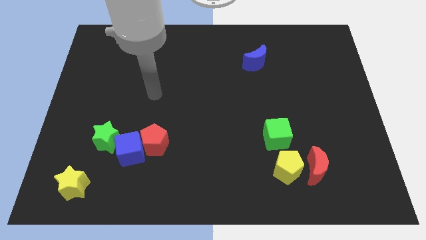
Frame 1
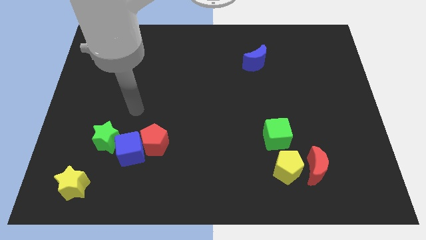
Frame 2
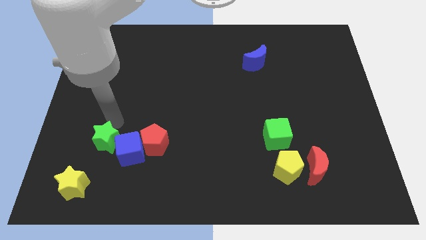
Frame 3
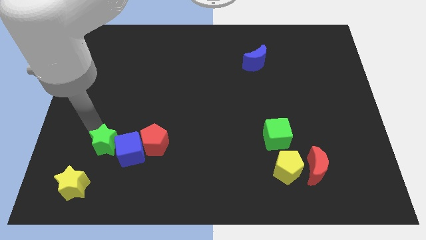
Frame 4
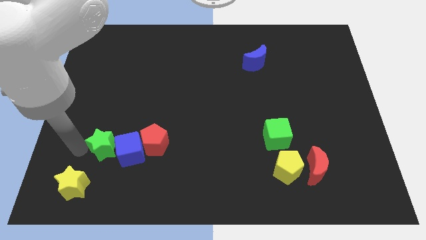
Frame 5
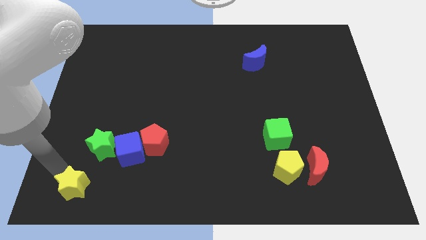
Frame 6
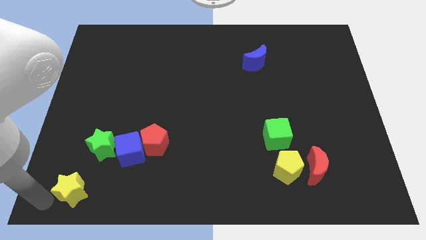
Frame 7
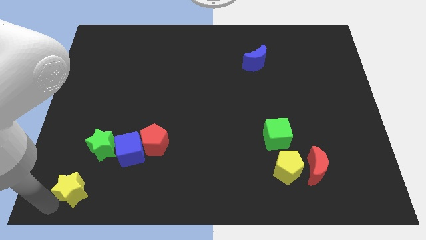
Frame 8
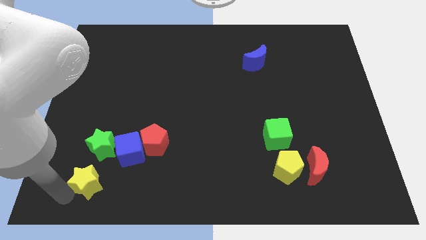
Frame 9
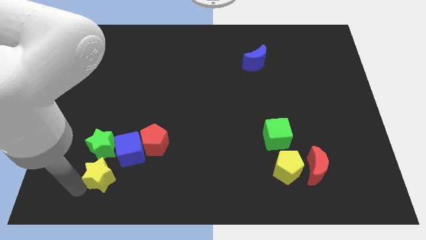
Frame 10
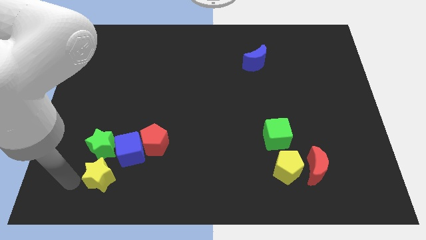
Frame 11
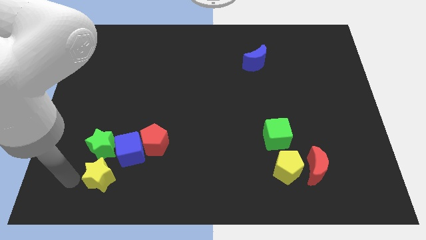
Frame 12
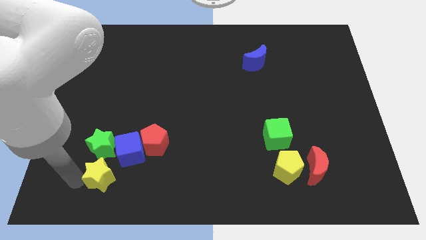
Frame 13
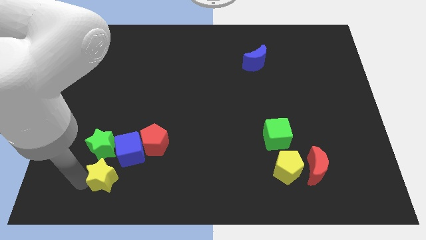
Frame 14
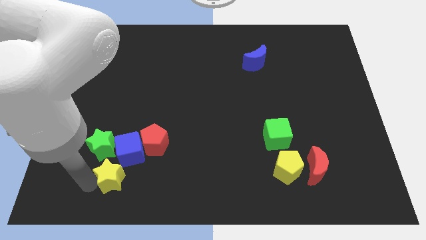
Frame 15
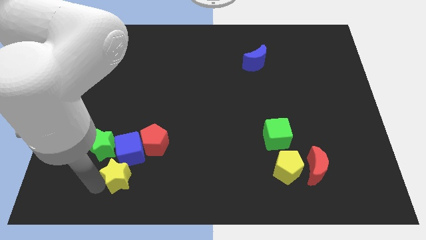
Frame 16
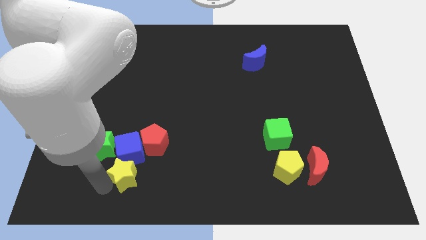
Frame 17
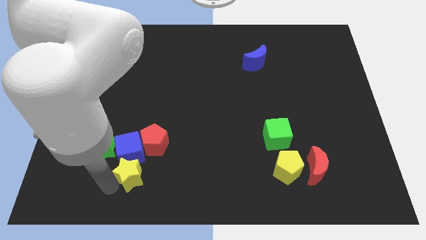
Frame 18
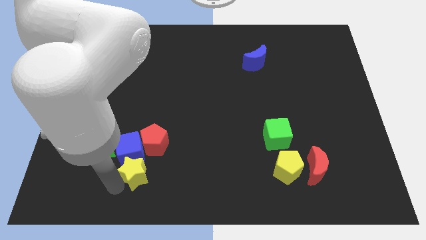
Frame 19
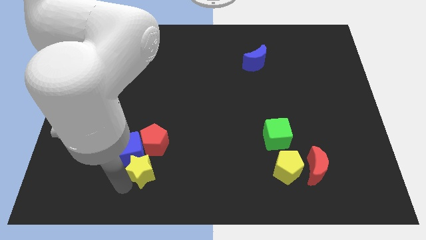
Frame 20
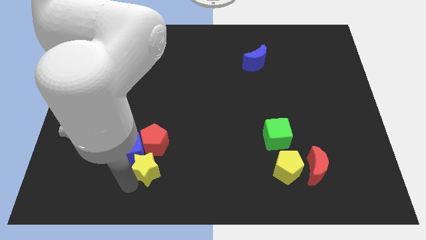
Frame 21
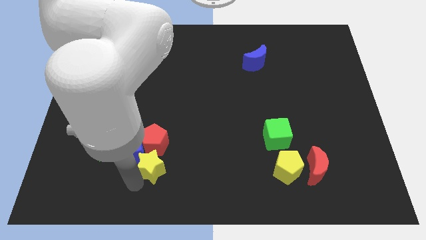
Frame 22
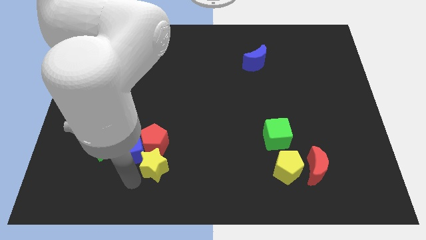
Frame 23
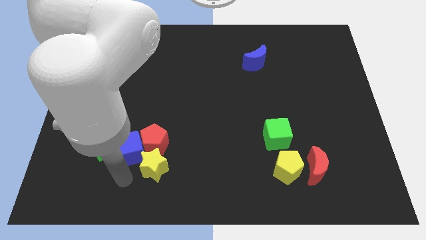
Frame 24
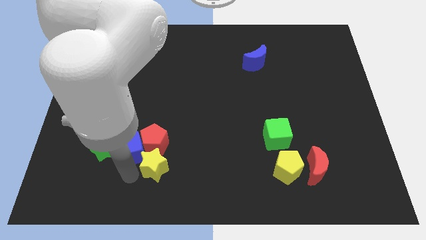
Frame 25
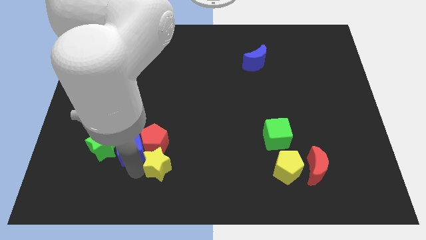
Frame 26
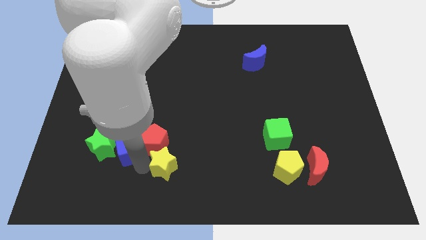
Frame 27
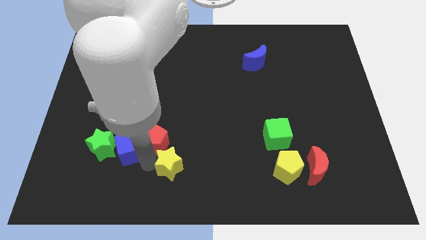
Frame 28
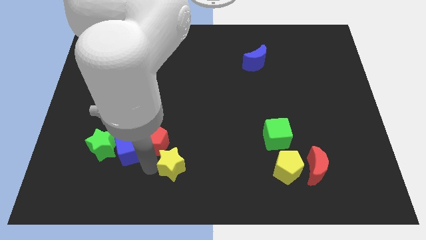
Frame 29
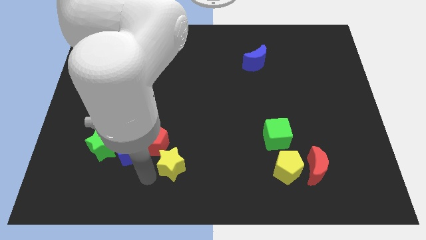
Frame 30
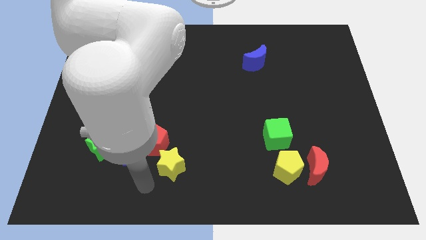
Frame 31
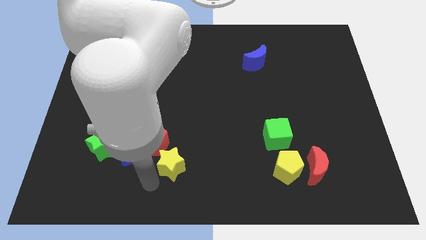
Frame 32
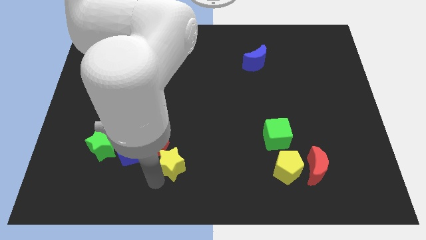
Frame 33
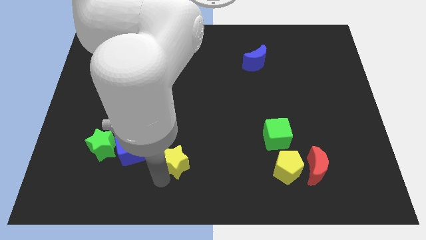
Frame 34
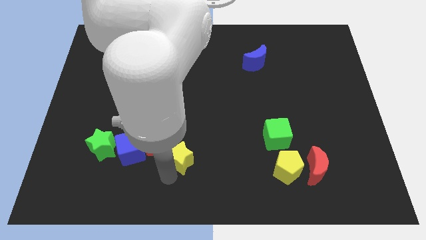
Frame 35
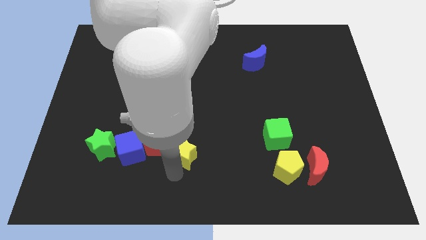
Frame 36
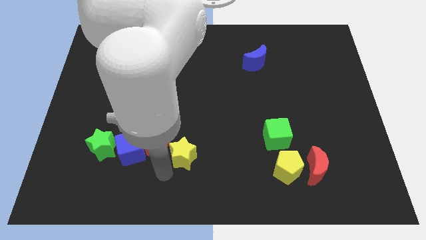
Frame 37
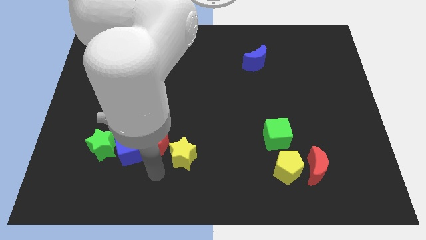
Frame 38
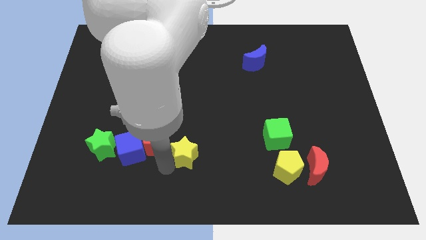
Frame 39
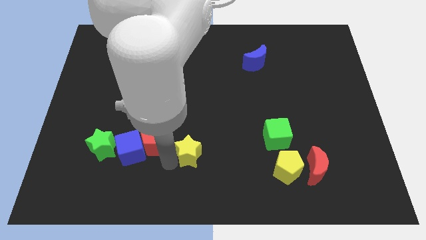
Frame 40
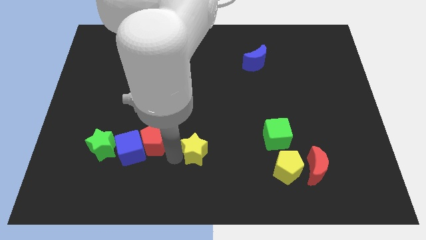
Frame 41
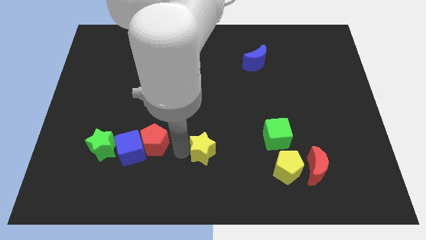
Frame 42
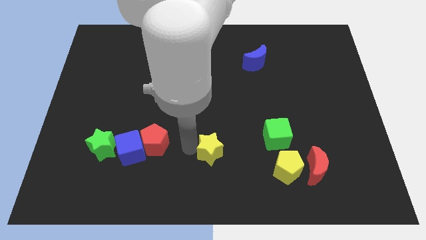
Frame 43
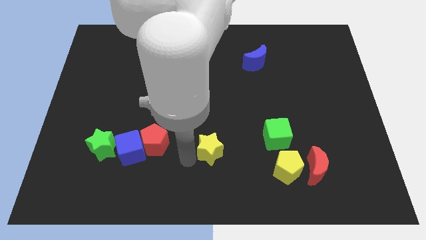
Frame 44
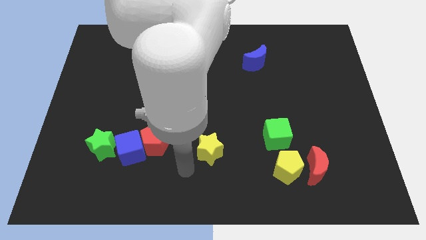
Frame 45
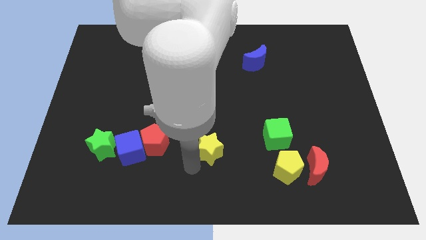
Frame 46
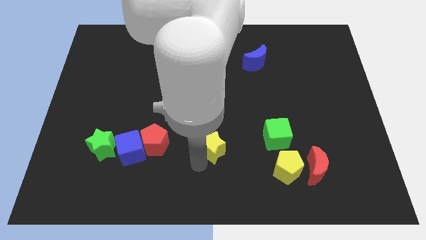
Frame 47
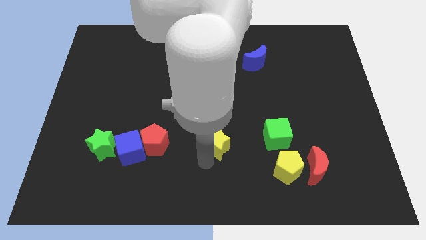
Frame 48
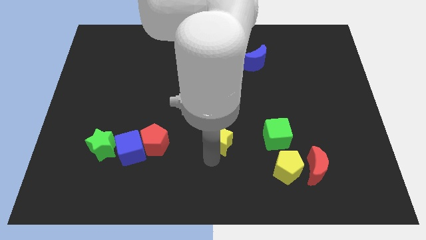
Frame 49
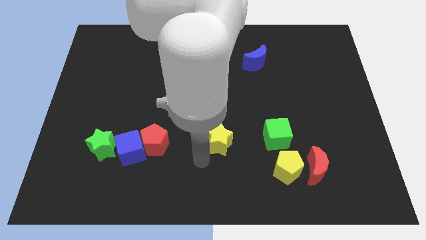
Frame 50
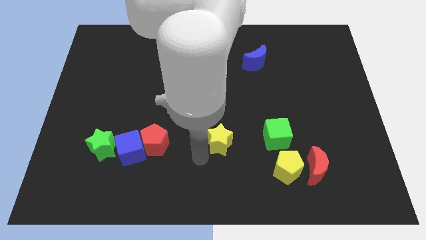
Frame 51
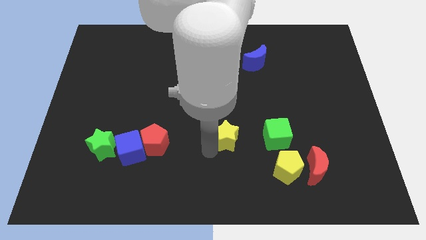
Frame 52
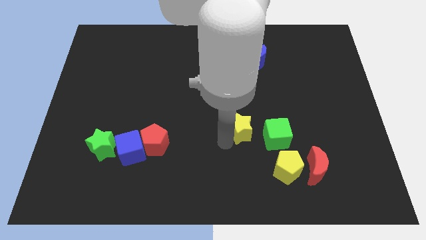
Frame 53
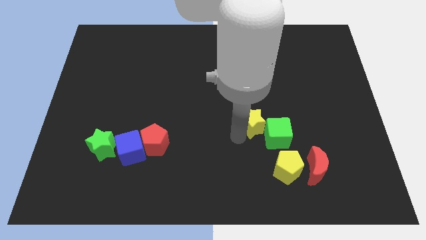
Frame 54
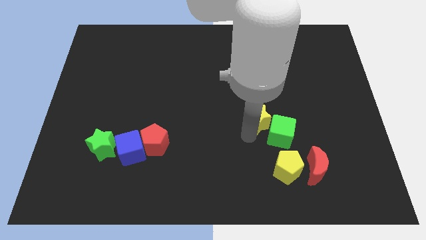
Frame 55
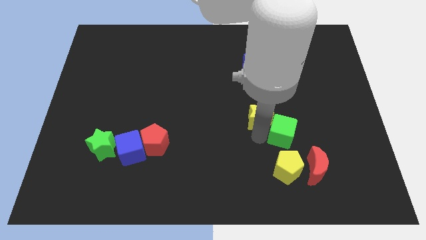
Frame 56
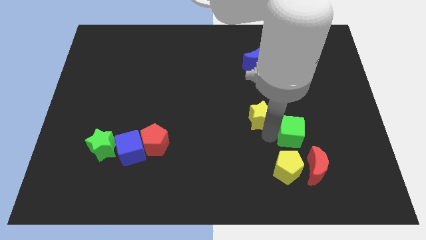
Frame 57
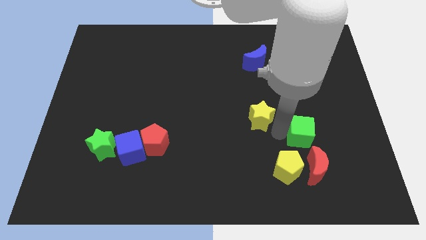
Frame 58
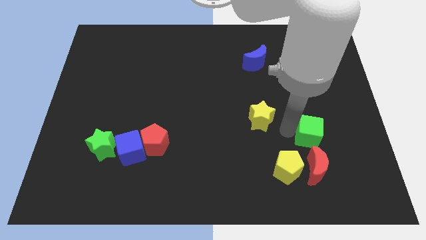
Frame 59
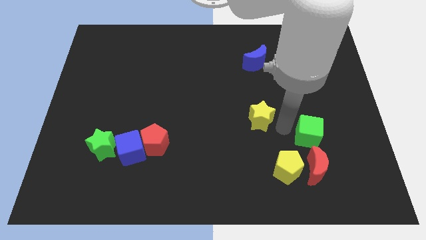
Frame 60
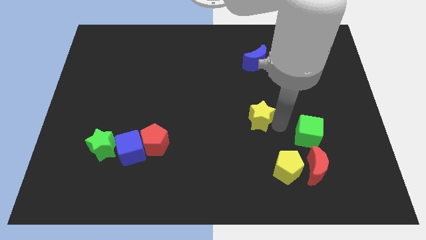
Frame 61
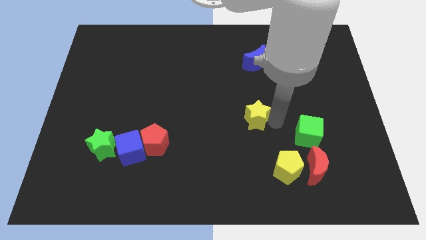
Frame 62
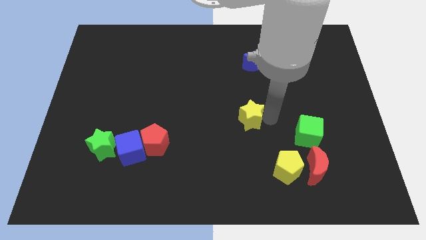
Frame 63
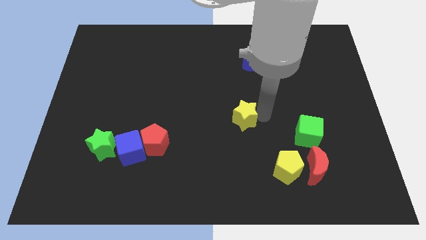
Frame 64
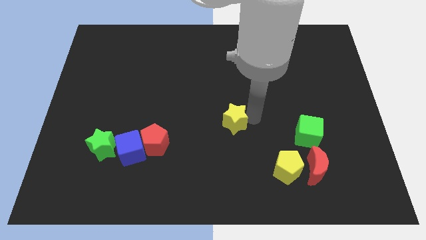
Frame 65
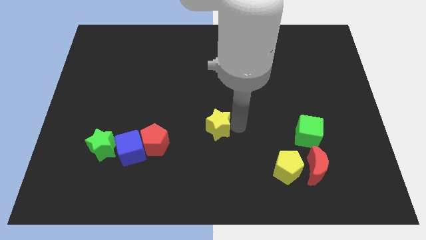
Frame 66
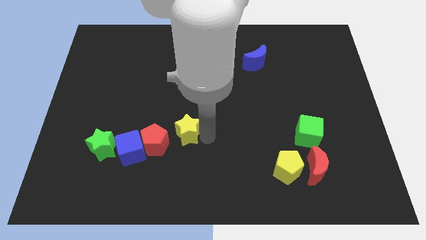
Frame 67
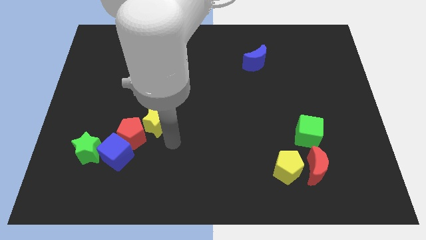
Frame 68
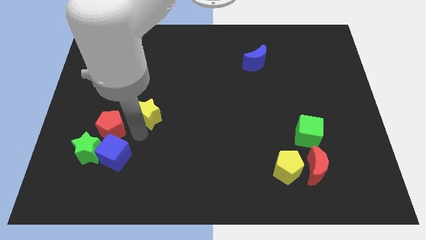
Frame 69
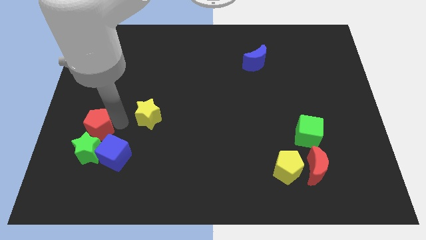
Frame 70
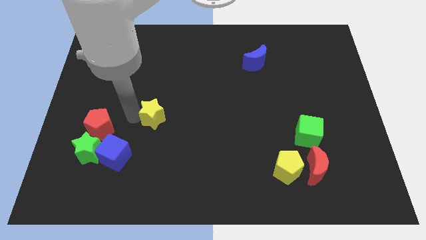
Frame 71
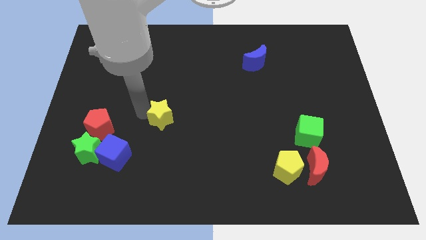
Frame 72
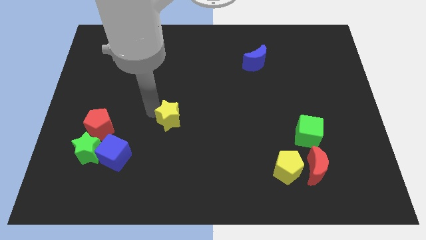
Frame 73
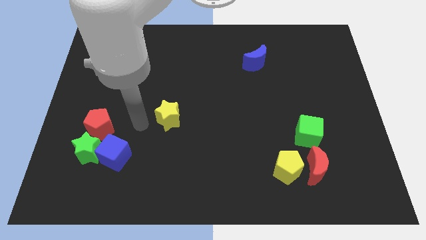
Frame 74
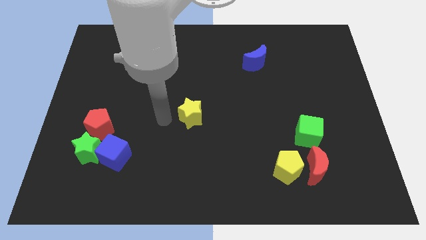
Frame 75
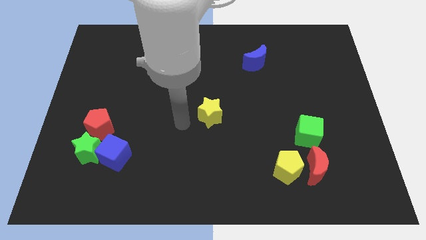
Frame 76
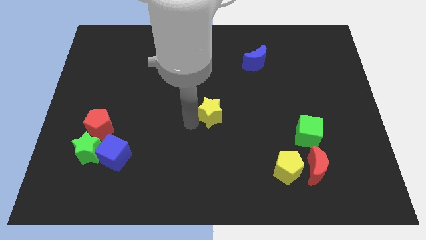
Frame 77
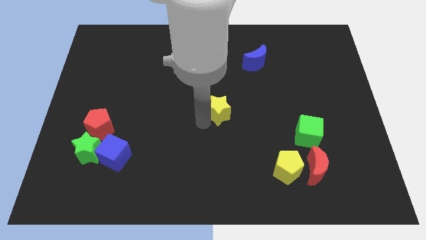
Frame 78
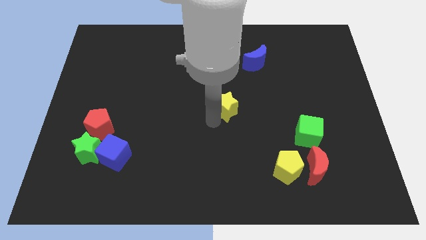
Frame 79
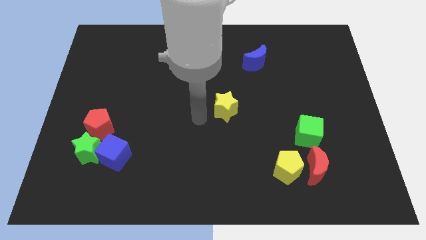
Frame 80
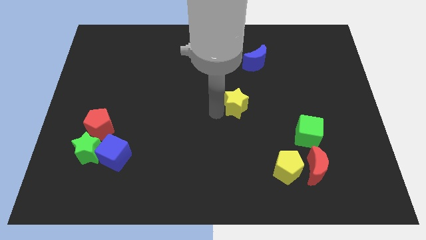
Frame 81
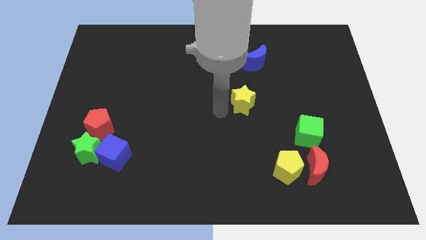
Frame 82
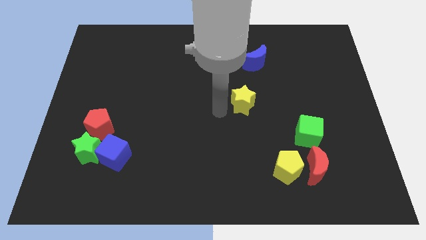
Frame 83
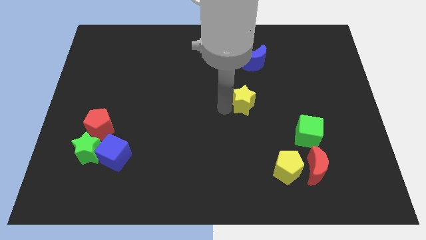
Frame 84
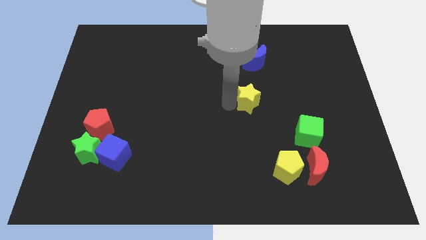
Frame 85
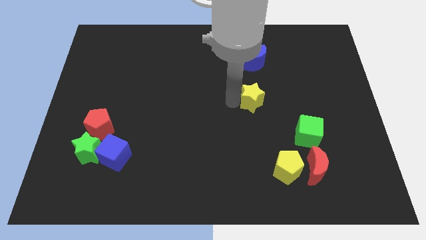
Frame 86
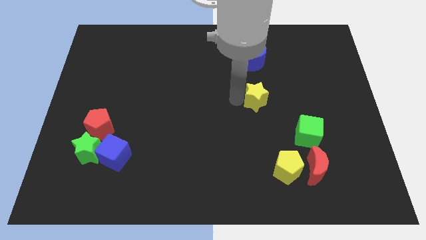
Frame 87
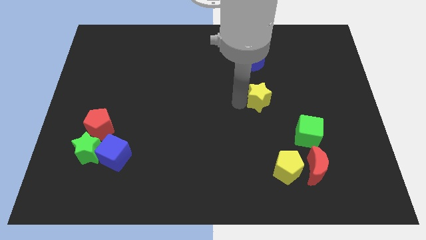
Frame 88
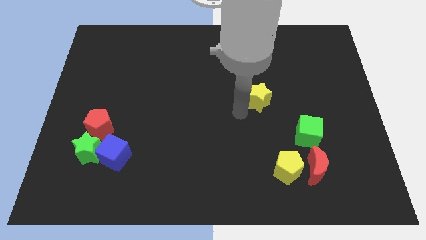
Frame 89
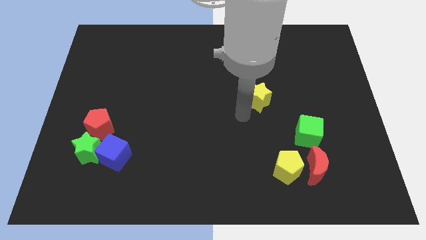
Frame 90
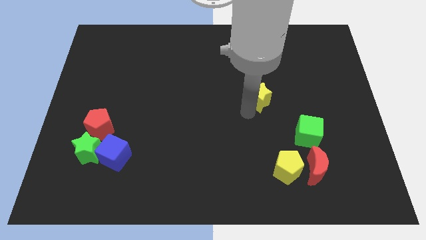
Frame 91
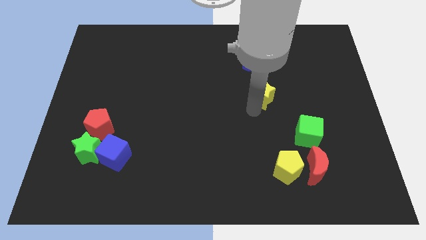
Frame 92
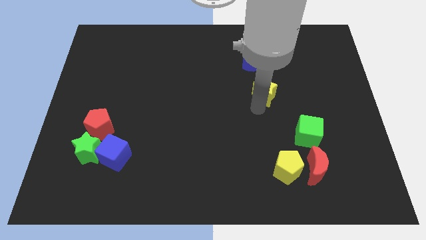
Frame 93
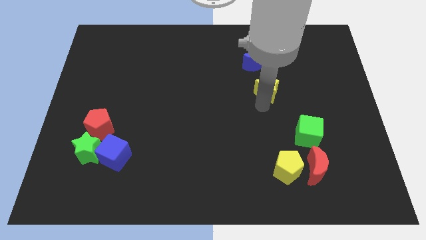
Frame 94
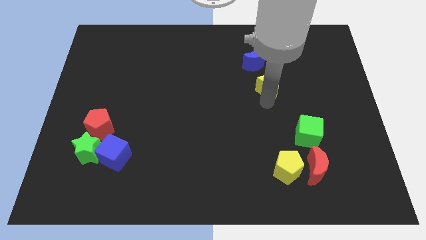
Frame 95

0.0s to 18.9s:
move the yellow star to the bottom right side of the blue moon
